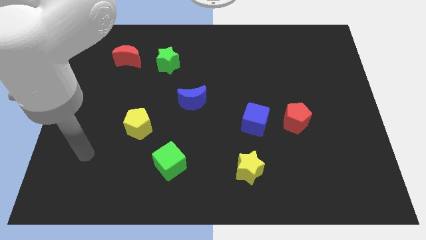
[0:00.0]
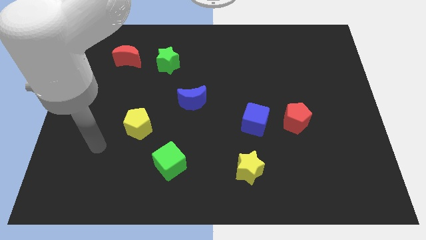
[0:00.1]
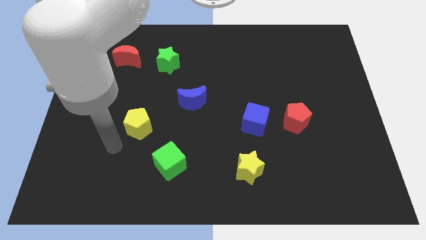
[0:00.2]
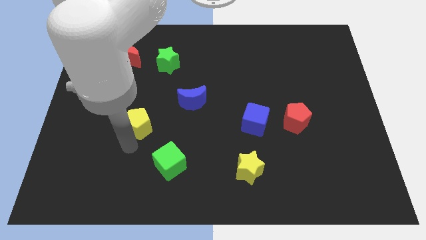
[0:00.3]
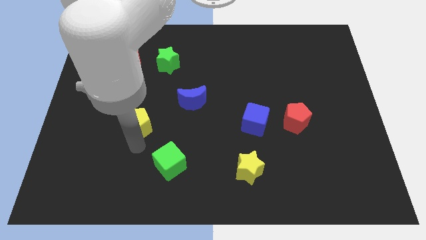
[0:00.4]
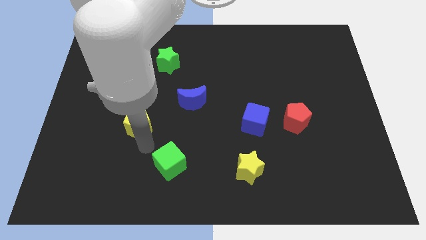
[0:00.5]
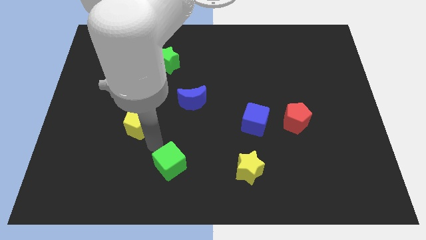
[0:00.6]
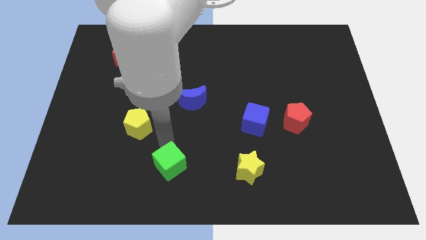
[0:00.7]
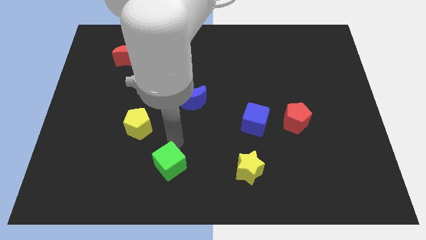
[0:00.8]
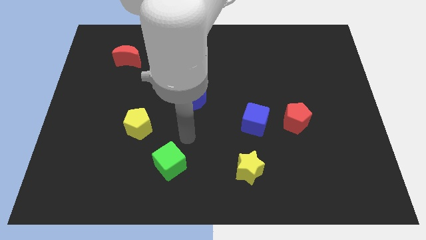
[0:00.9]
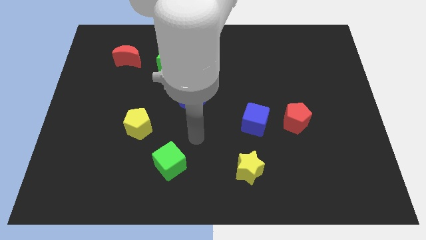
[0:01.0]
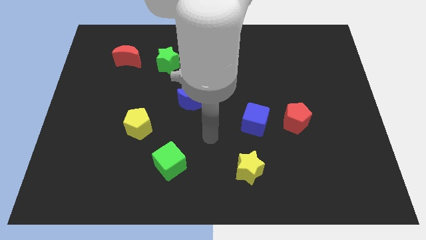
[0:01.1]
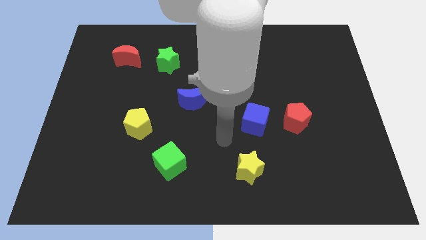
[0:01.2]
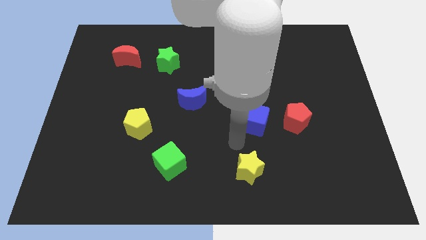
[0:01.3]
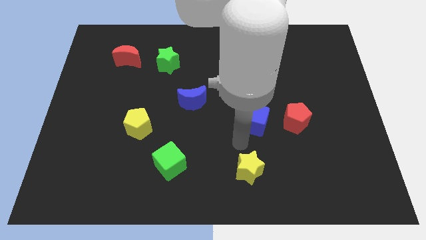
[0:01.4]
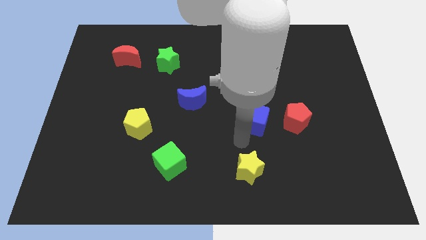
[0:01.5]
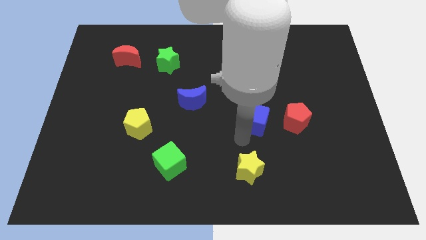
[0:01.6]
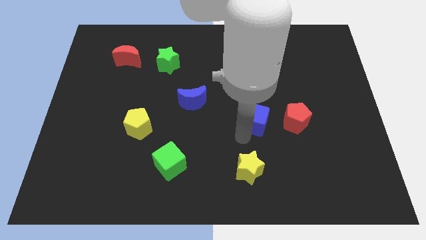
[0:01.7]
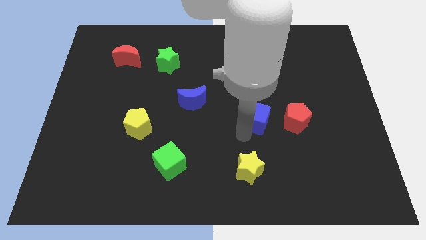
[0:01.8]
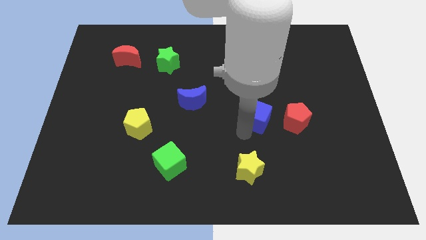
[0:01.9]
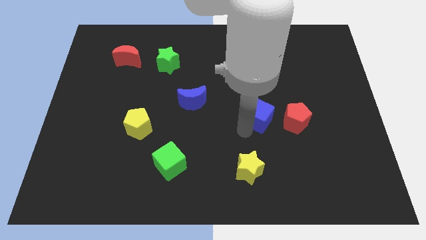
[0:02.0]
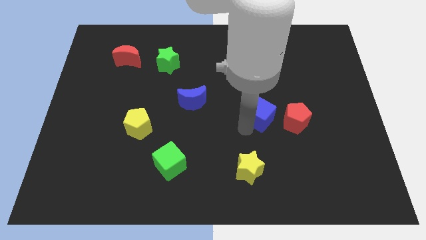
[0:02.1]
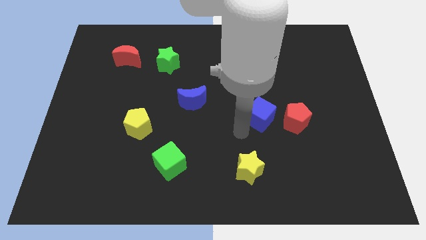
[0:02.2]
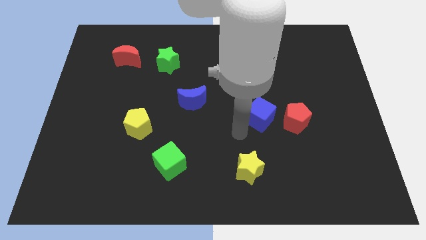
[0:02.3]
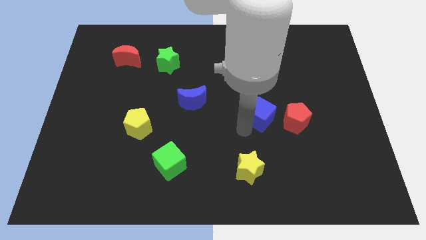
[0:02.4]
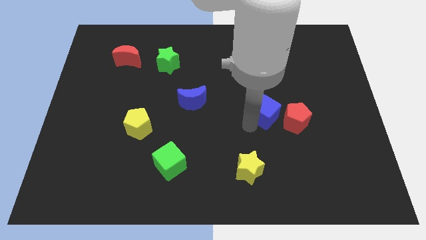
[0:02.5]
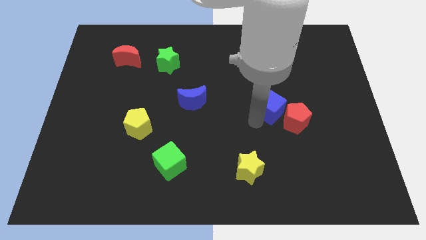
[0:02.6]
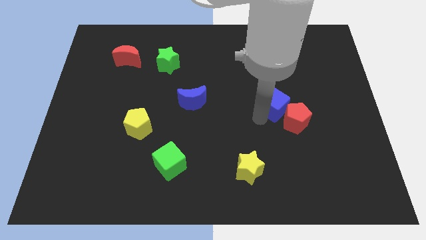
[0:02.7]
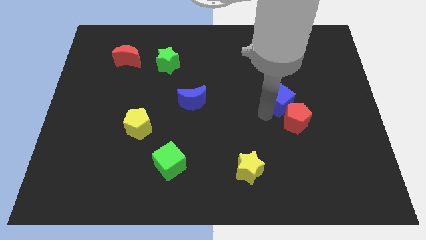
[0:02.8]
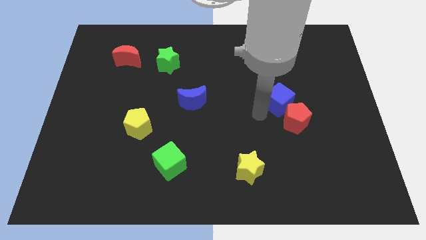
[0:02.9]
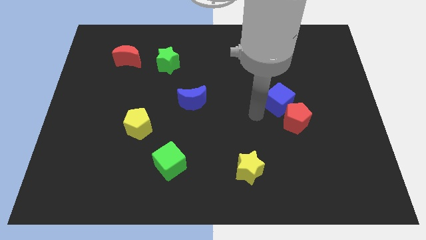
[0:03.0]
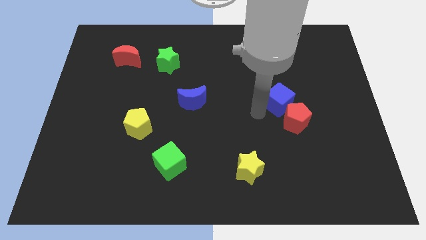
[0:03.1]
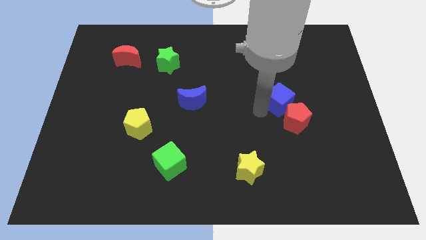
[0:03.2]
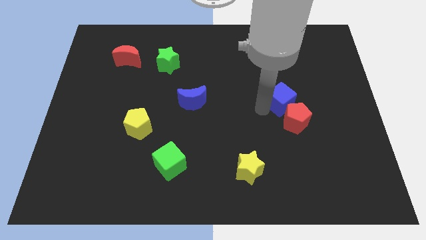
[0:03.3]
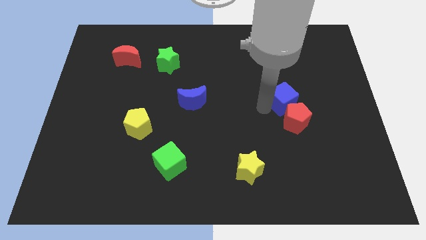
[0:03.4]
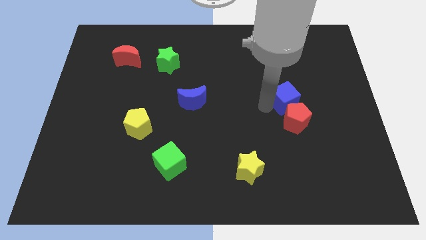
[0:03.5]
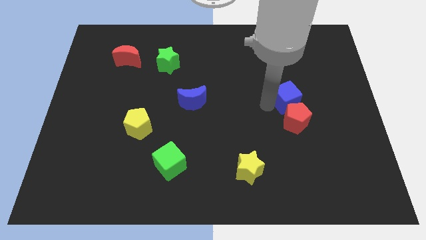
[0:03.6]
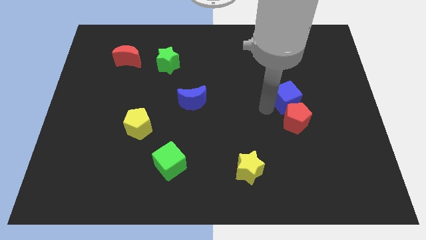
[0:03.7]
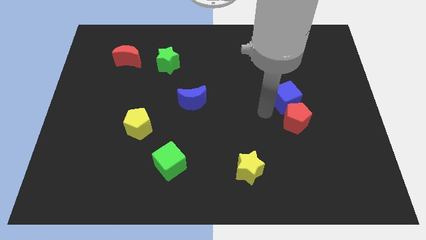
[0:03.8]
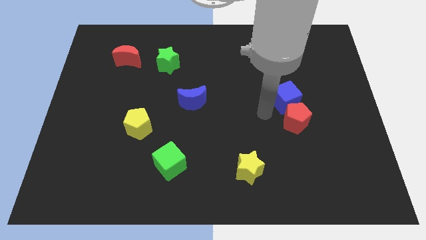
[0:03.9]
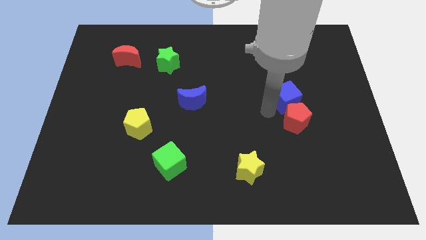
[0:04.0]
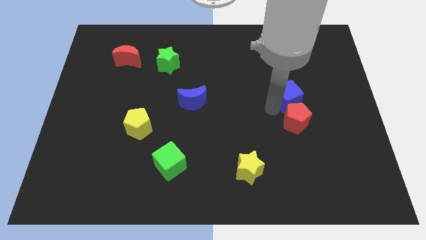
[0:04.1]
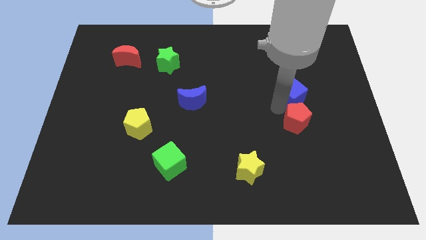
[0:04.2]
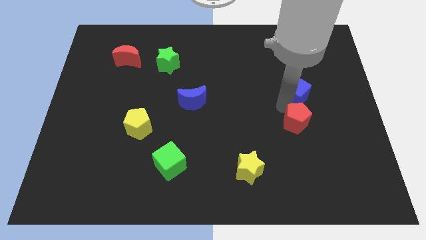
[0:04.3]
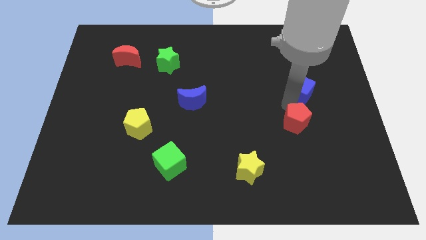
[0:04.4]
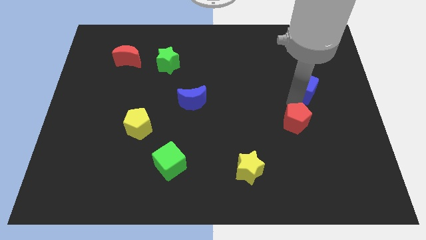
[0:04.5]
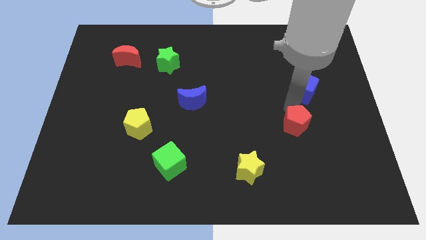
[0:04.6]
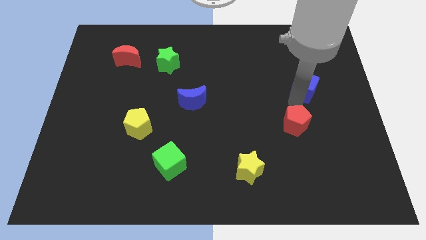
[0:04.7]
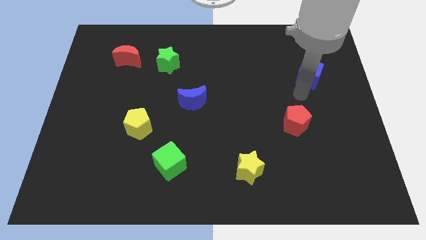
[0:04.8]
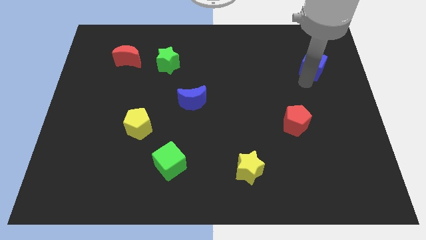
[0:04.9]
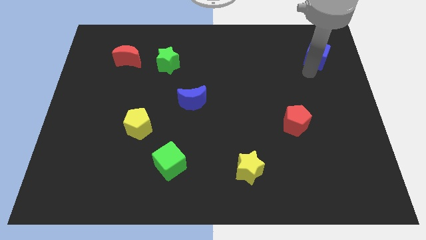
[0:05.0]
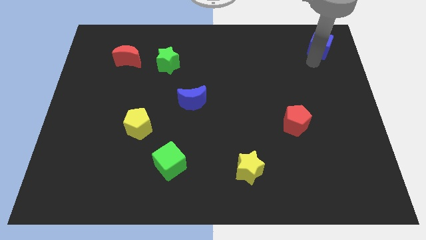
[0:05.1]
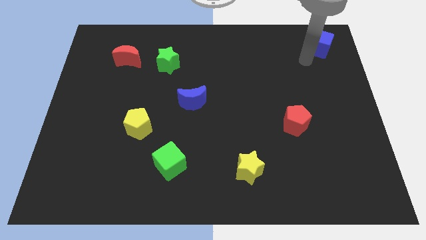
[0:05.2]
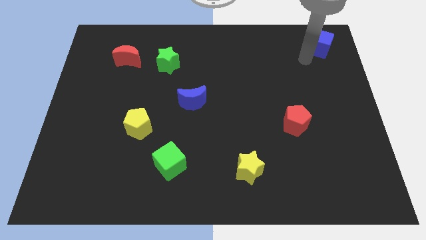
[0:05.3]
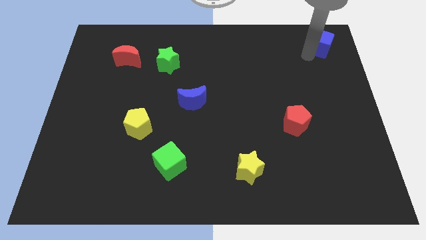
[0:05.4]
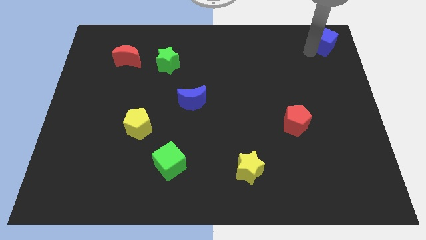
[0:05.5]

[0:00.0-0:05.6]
slide the blue cube to the top right of the board
